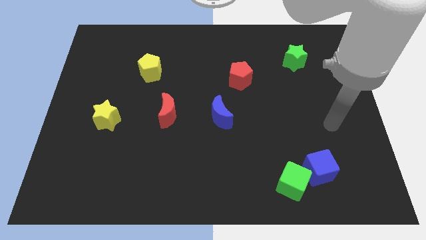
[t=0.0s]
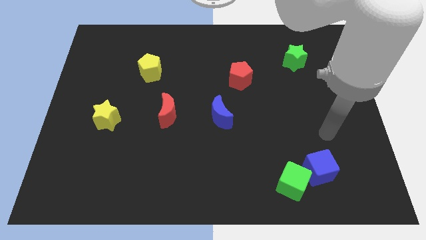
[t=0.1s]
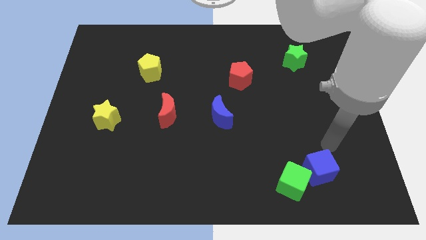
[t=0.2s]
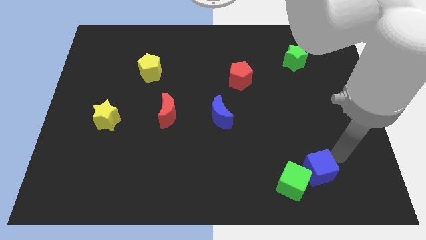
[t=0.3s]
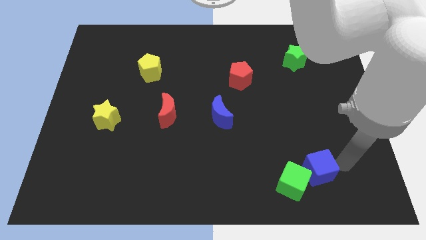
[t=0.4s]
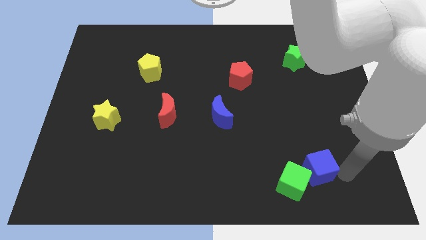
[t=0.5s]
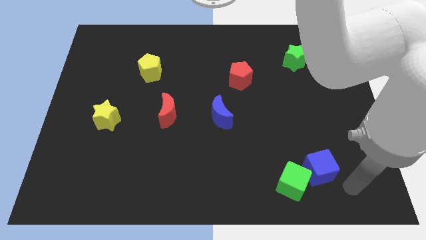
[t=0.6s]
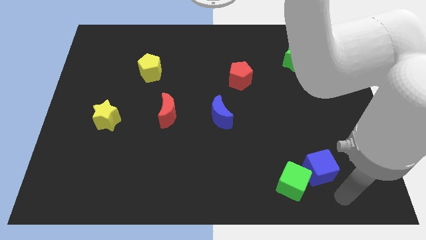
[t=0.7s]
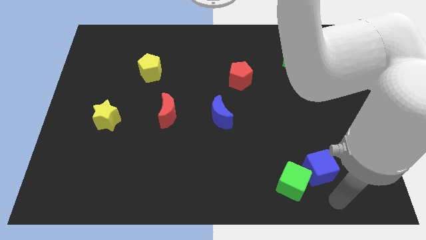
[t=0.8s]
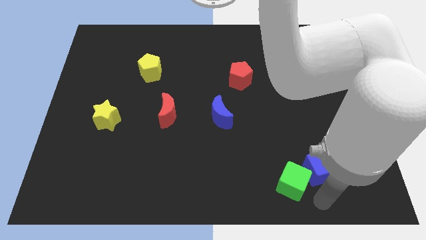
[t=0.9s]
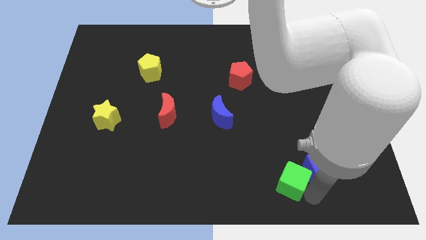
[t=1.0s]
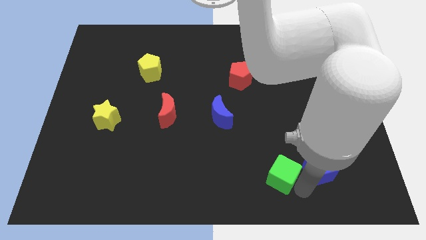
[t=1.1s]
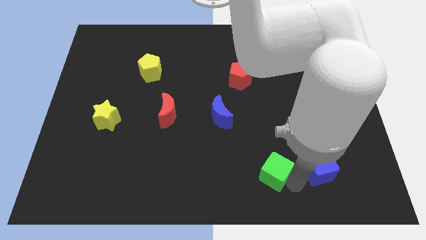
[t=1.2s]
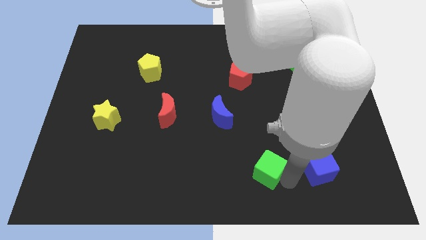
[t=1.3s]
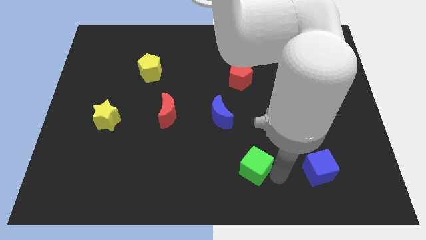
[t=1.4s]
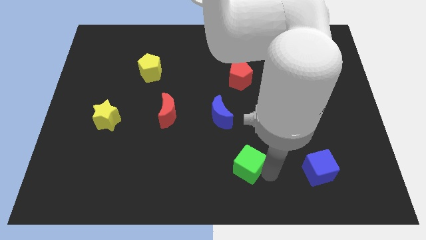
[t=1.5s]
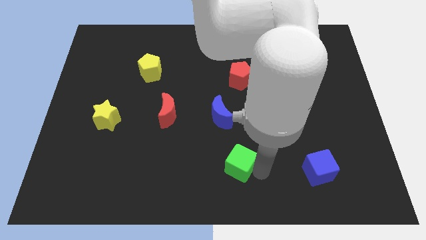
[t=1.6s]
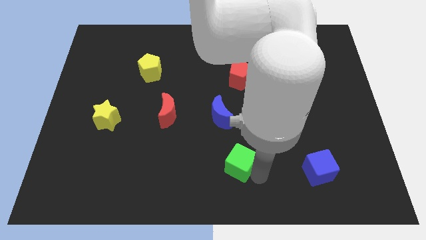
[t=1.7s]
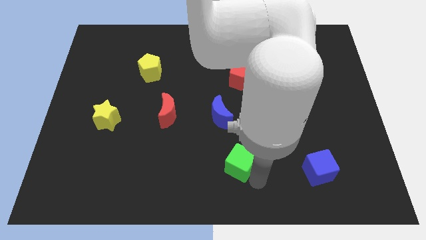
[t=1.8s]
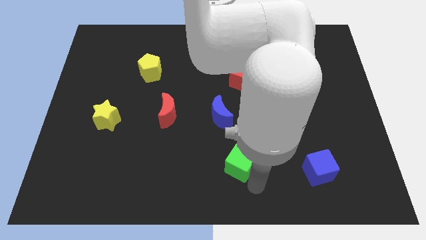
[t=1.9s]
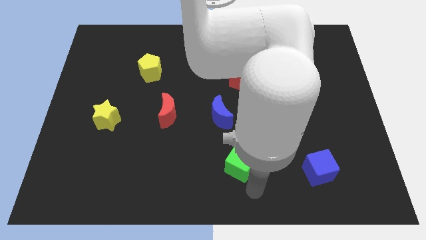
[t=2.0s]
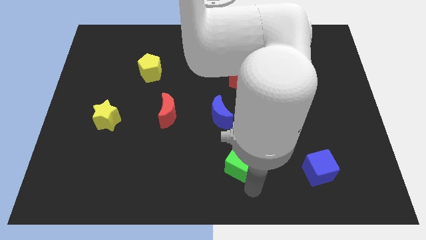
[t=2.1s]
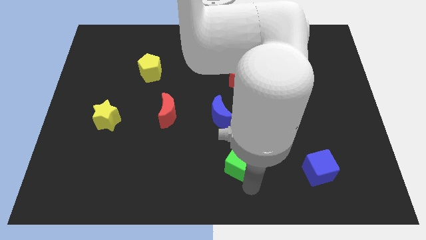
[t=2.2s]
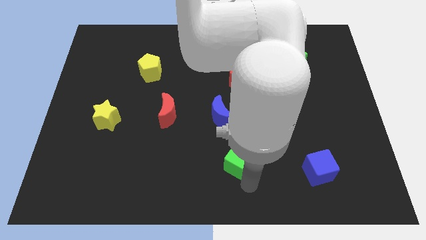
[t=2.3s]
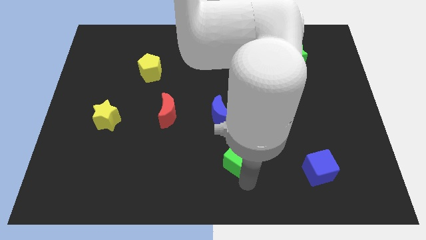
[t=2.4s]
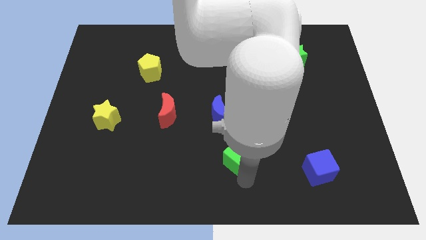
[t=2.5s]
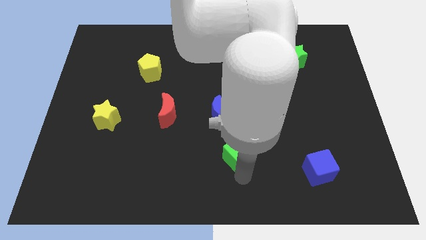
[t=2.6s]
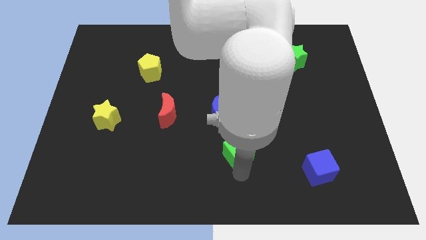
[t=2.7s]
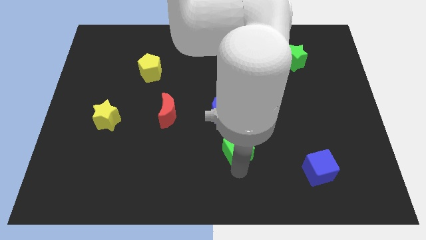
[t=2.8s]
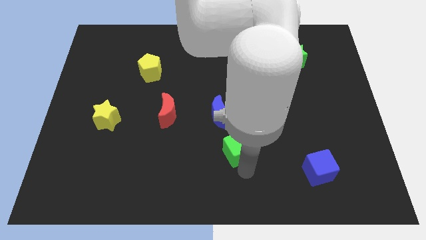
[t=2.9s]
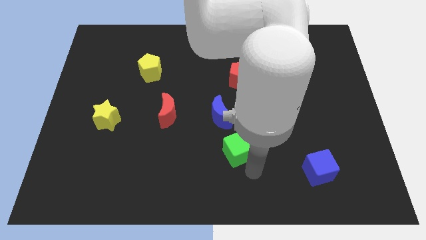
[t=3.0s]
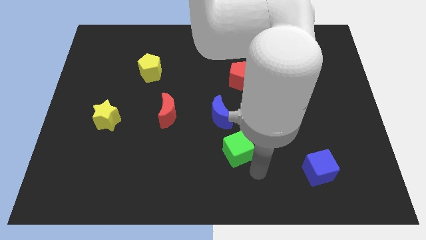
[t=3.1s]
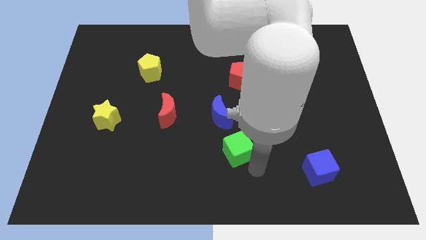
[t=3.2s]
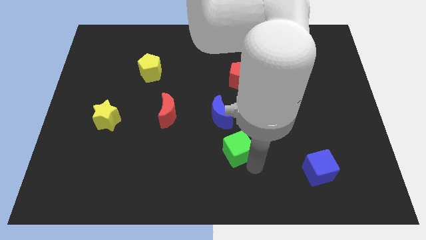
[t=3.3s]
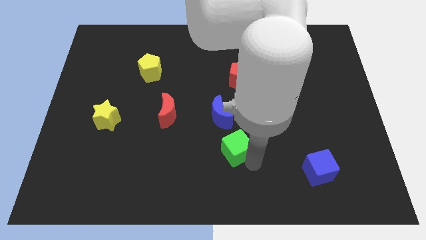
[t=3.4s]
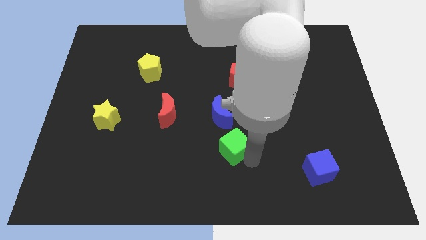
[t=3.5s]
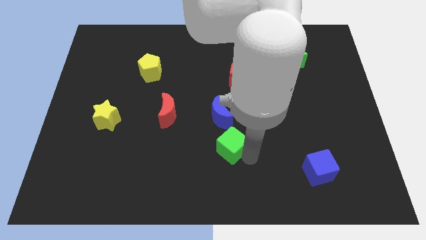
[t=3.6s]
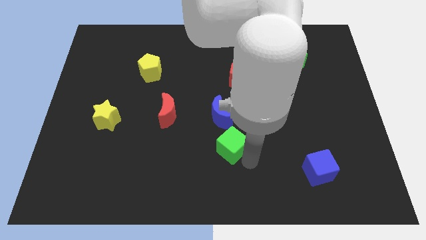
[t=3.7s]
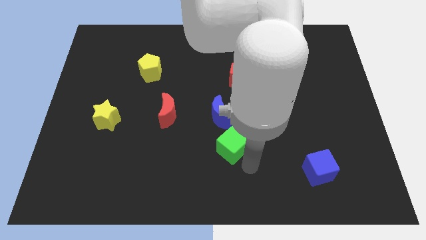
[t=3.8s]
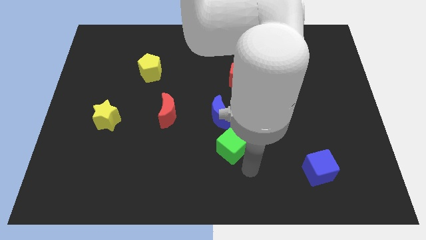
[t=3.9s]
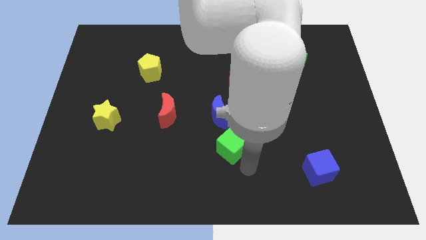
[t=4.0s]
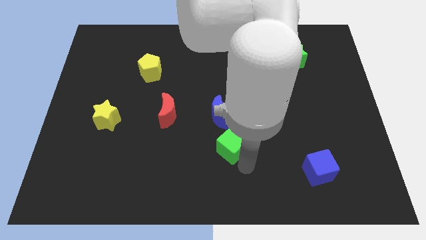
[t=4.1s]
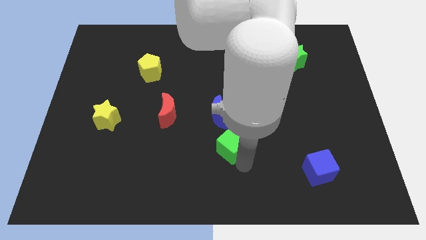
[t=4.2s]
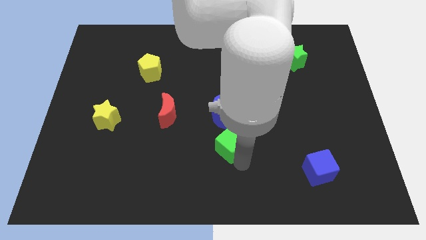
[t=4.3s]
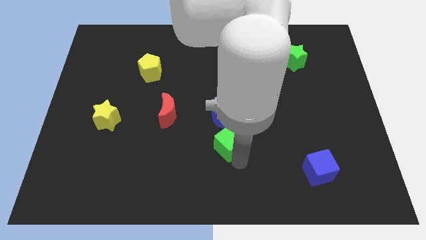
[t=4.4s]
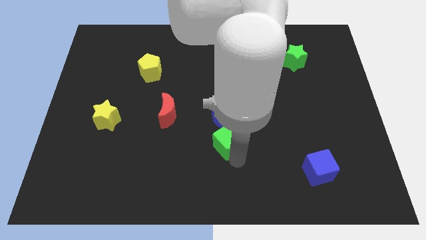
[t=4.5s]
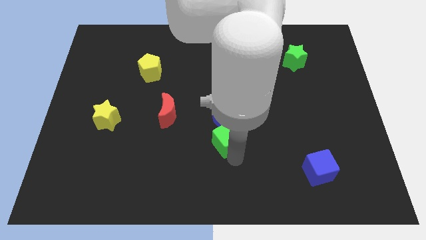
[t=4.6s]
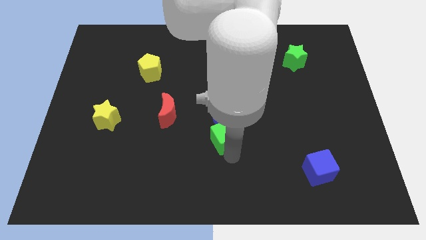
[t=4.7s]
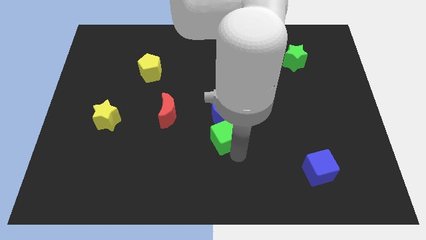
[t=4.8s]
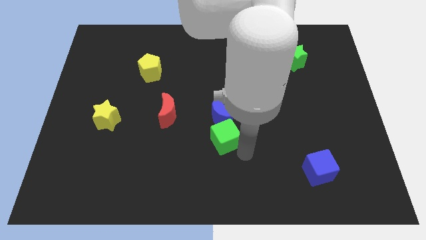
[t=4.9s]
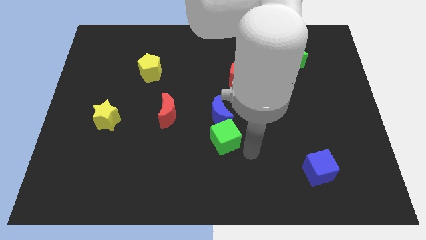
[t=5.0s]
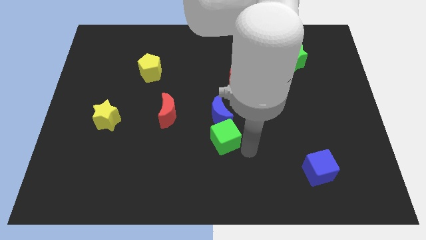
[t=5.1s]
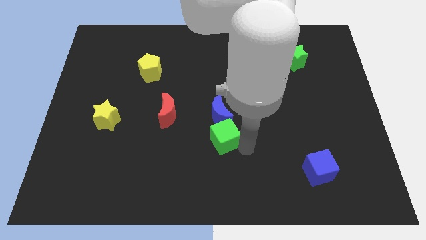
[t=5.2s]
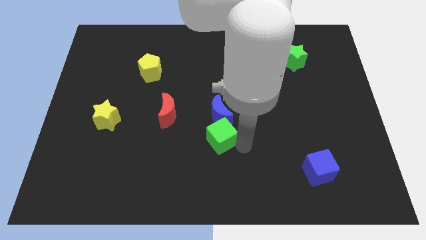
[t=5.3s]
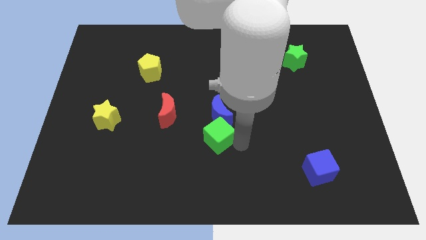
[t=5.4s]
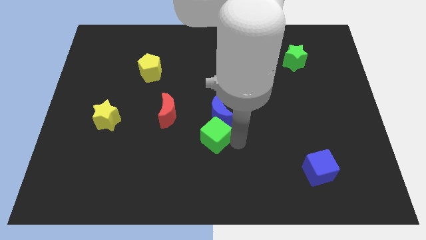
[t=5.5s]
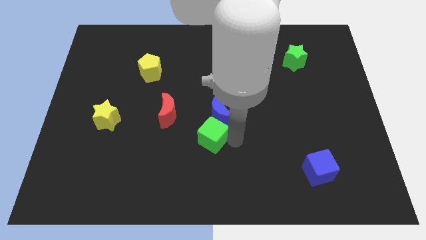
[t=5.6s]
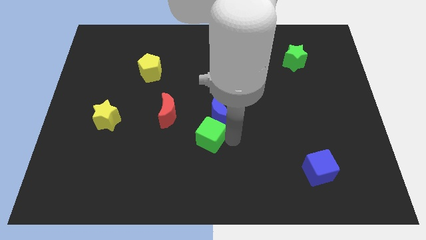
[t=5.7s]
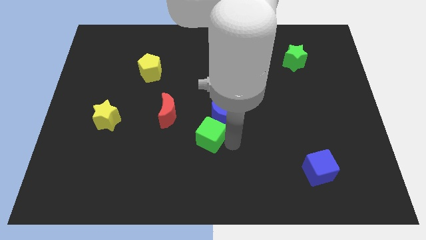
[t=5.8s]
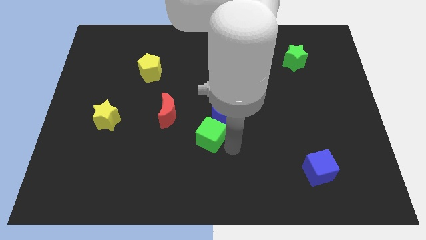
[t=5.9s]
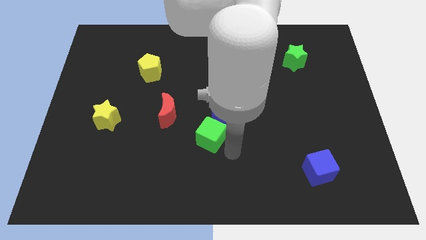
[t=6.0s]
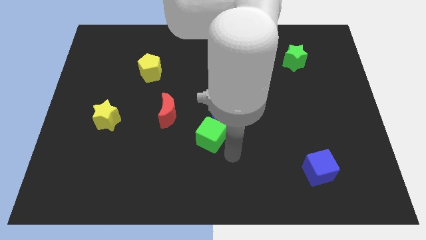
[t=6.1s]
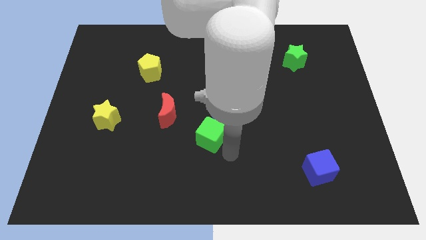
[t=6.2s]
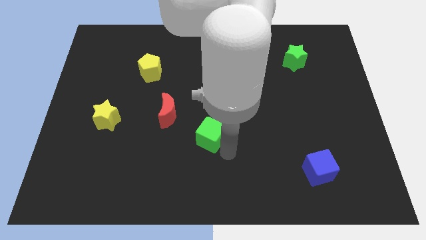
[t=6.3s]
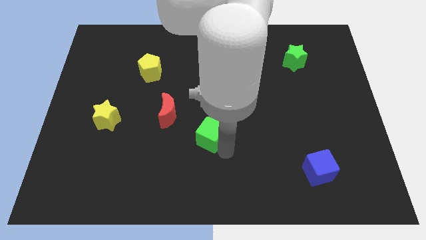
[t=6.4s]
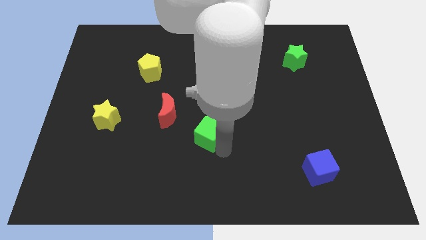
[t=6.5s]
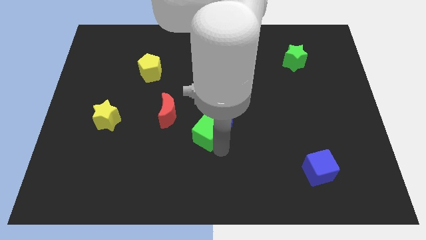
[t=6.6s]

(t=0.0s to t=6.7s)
move the green cube up and then to the left

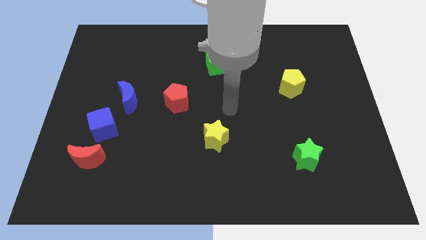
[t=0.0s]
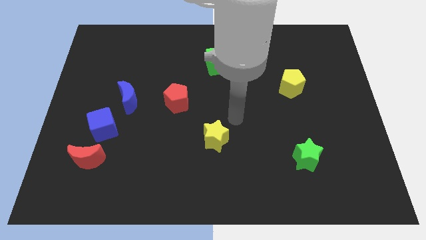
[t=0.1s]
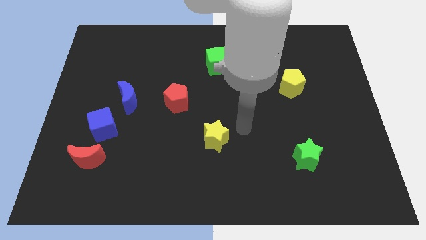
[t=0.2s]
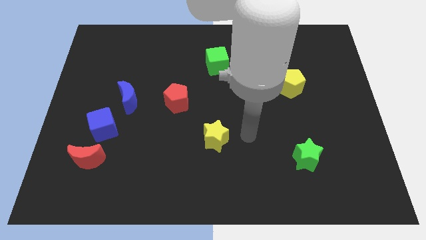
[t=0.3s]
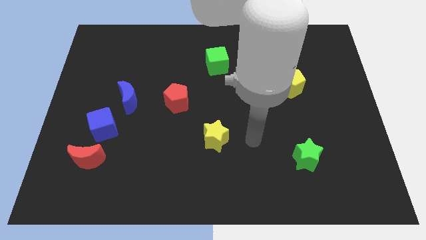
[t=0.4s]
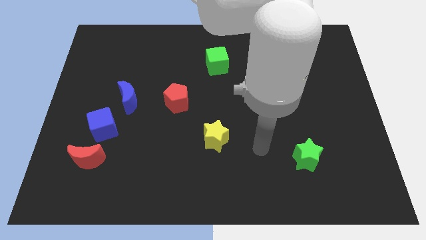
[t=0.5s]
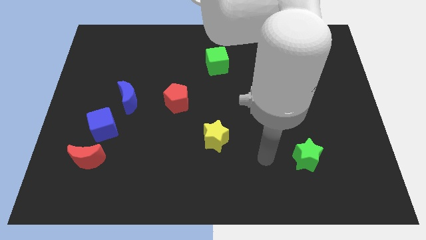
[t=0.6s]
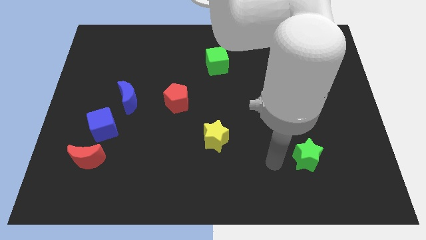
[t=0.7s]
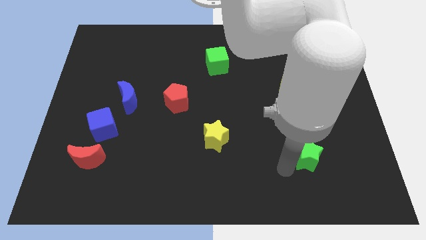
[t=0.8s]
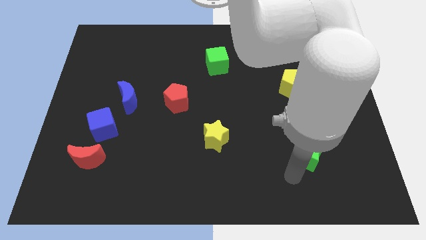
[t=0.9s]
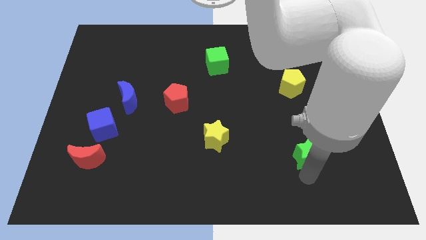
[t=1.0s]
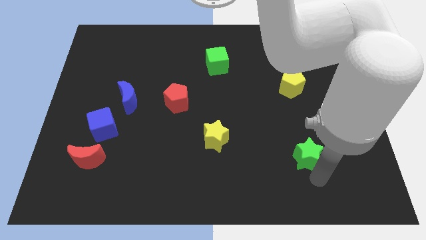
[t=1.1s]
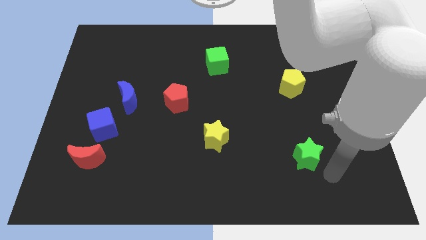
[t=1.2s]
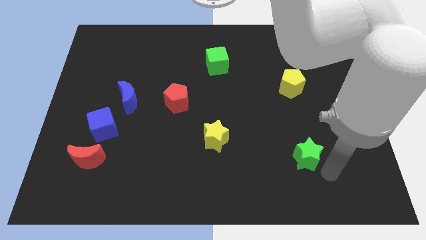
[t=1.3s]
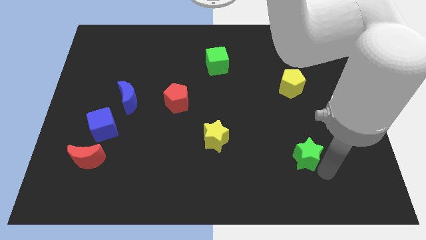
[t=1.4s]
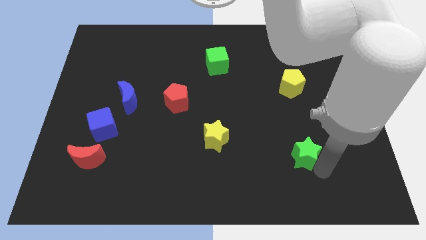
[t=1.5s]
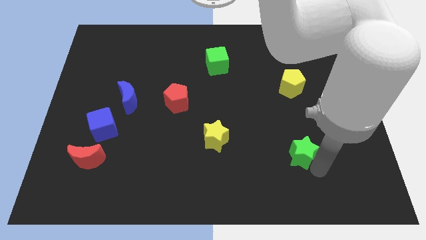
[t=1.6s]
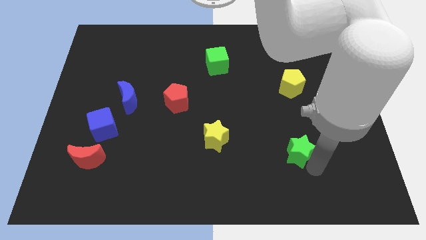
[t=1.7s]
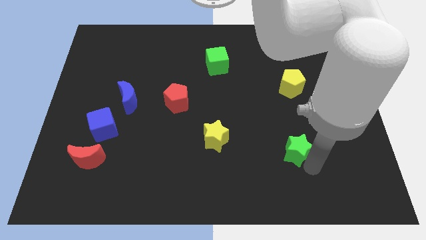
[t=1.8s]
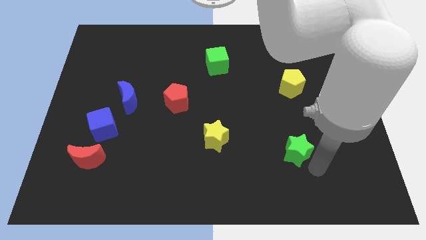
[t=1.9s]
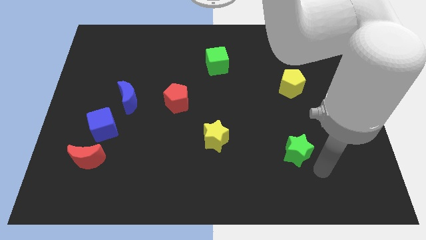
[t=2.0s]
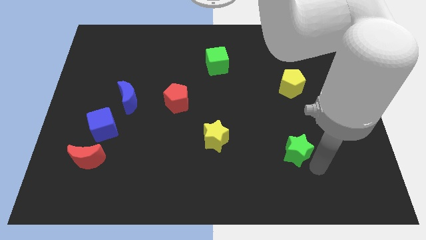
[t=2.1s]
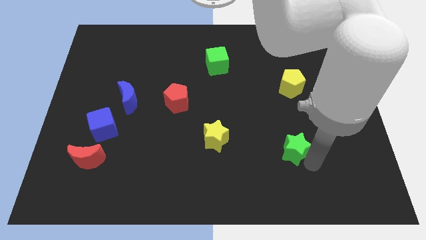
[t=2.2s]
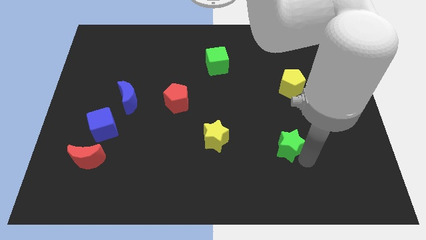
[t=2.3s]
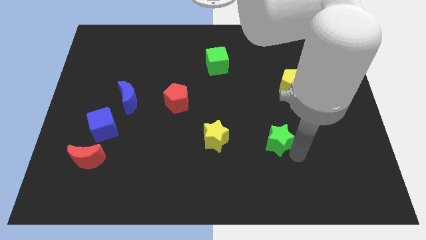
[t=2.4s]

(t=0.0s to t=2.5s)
slightly push the green star up and to the left
